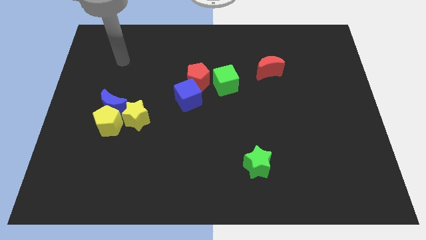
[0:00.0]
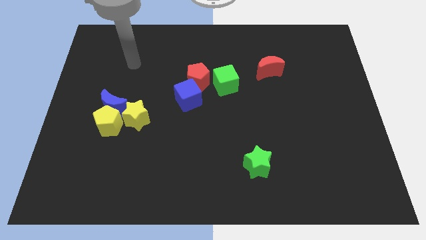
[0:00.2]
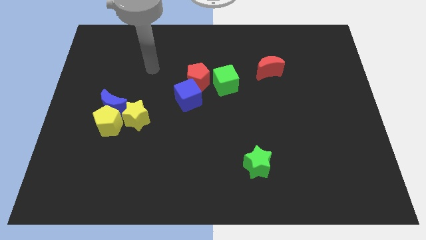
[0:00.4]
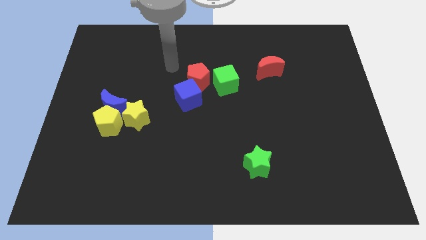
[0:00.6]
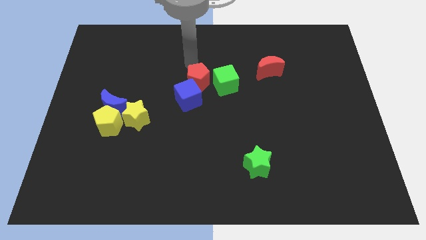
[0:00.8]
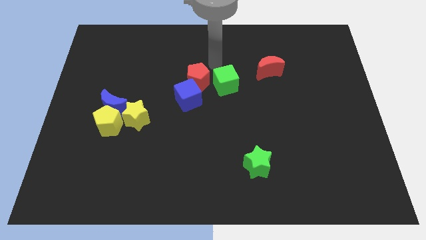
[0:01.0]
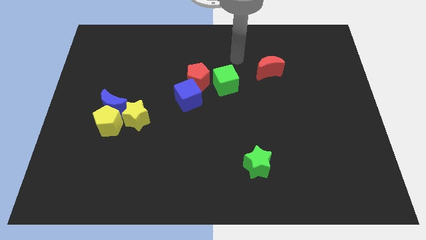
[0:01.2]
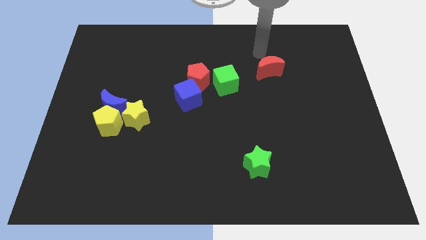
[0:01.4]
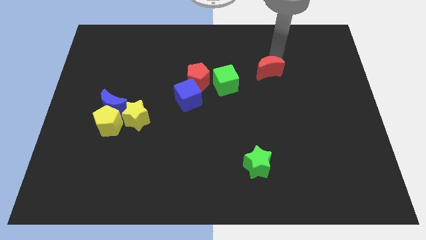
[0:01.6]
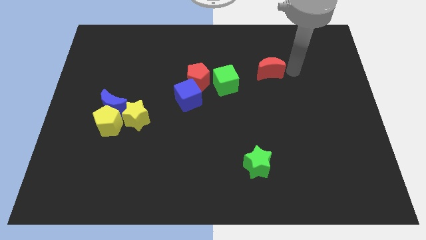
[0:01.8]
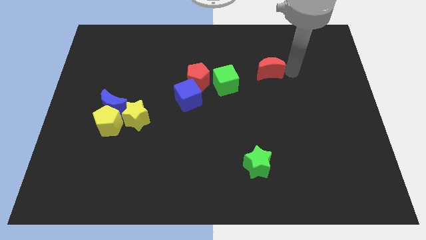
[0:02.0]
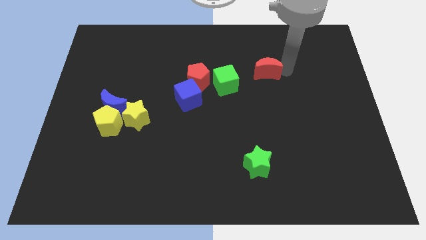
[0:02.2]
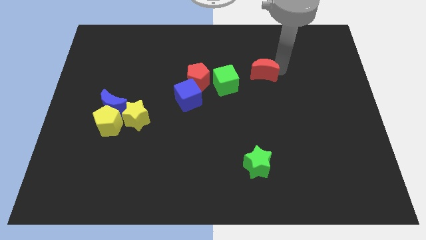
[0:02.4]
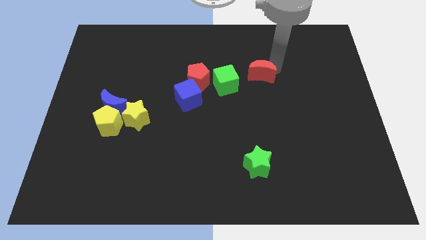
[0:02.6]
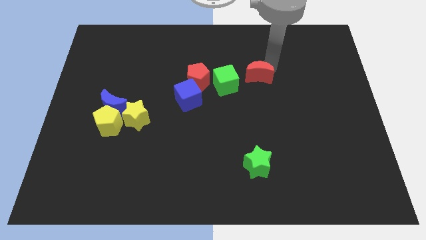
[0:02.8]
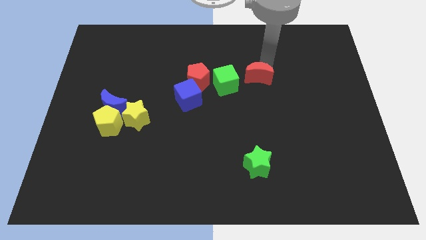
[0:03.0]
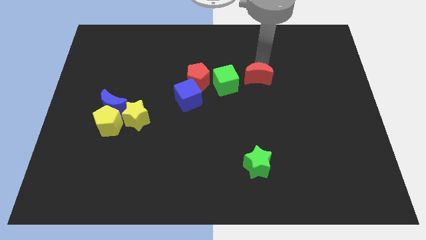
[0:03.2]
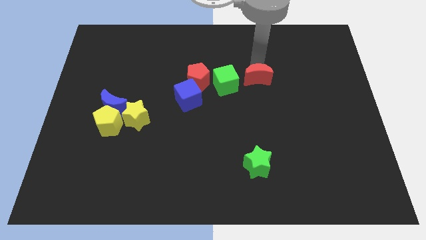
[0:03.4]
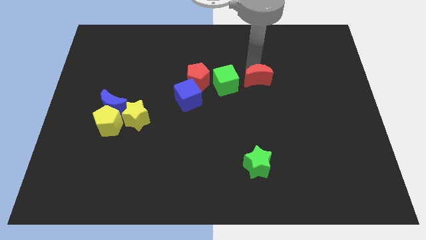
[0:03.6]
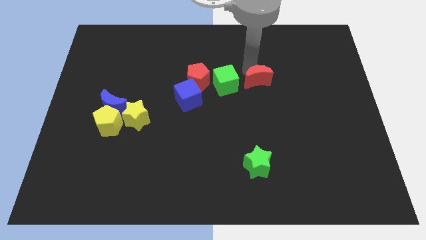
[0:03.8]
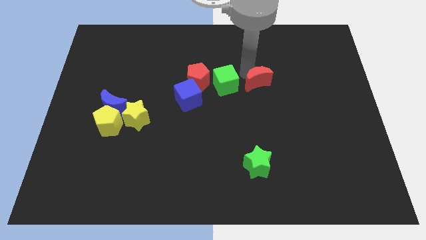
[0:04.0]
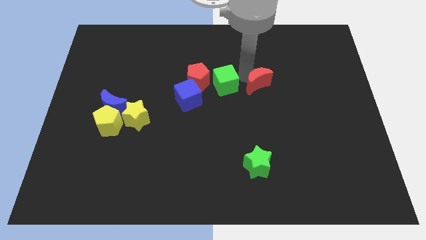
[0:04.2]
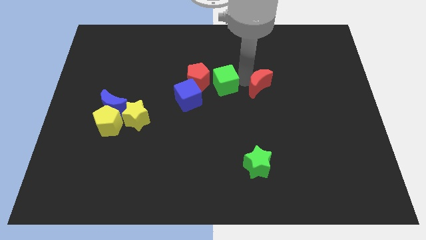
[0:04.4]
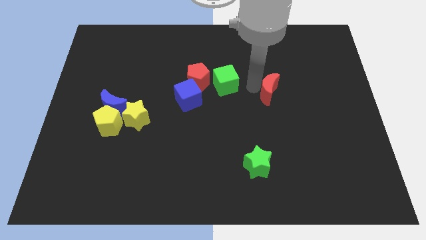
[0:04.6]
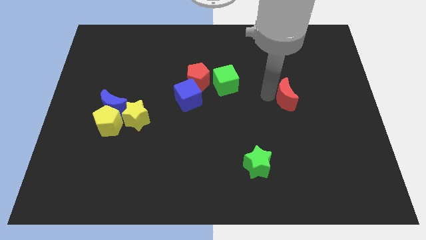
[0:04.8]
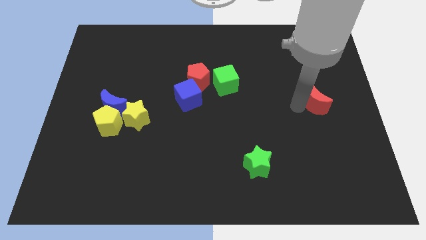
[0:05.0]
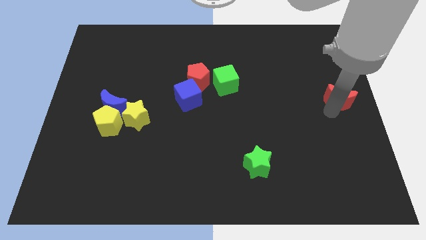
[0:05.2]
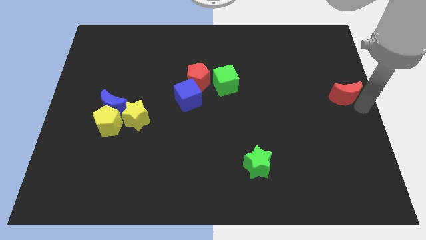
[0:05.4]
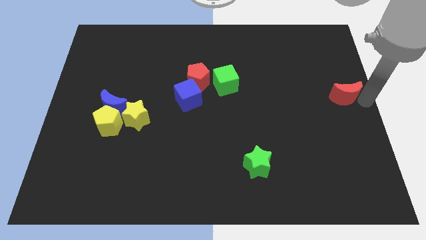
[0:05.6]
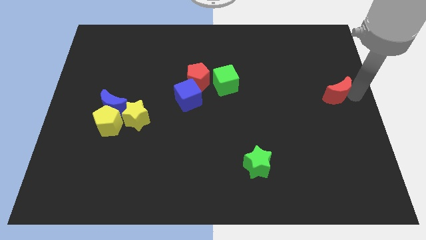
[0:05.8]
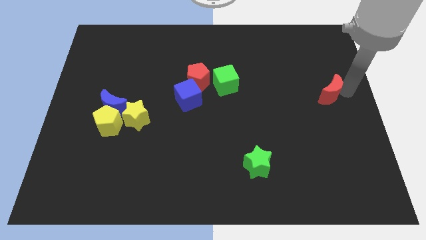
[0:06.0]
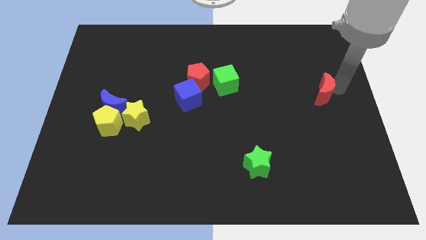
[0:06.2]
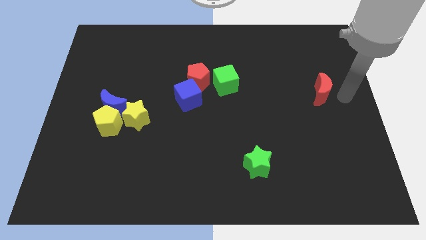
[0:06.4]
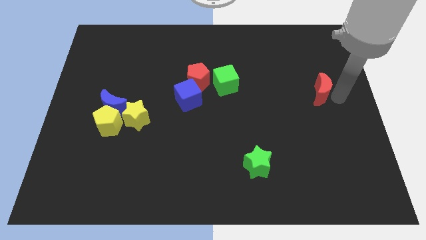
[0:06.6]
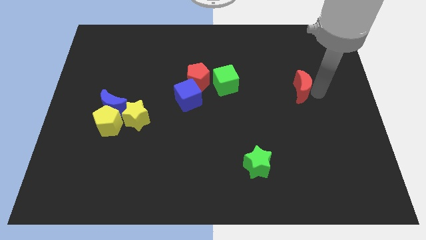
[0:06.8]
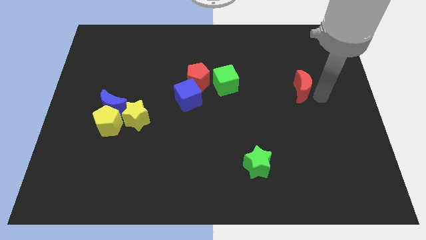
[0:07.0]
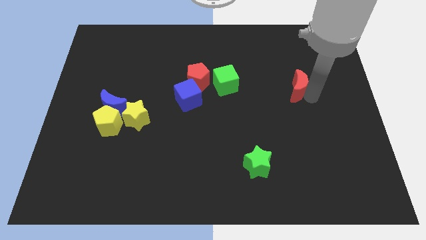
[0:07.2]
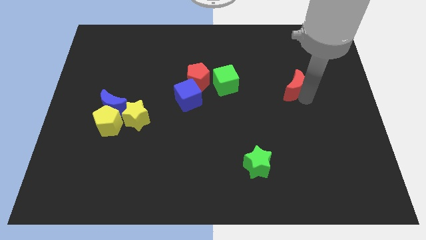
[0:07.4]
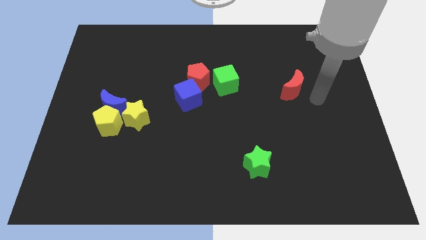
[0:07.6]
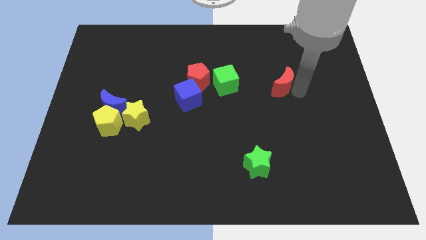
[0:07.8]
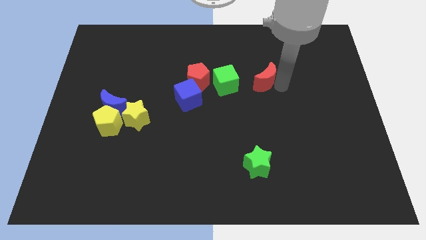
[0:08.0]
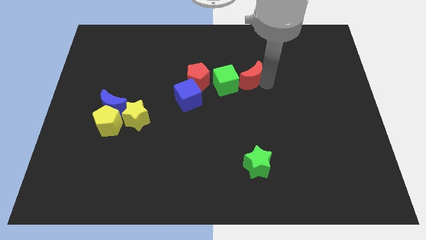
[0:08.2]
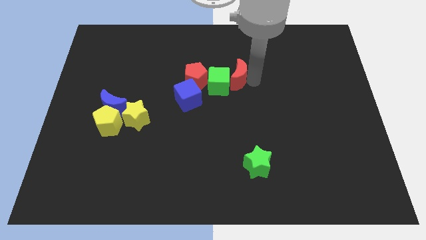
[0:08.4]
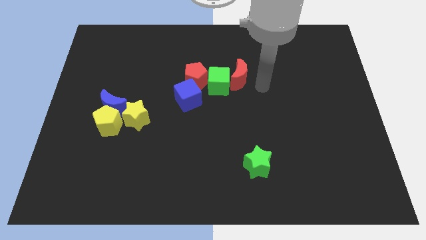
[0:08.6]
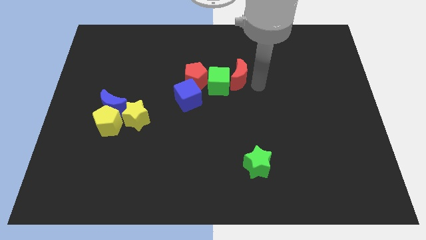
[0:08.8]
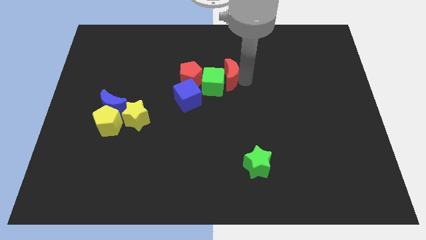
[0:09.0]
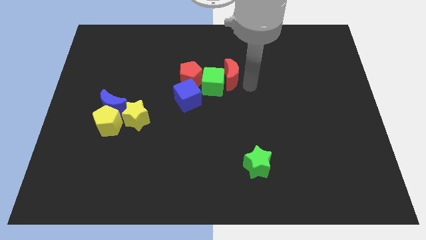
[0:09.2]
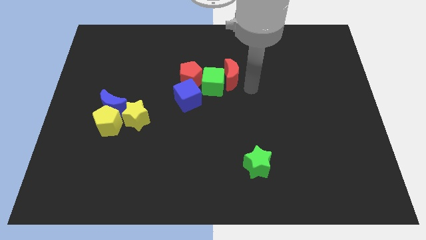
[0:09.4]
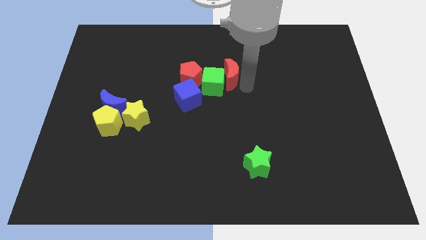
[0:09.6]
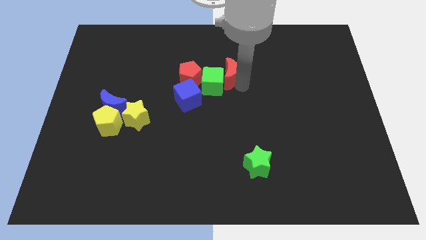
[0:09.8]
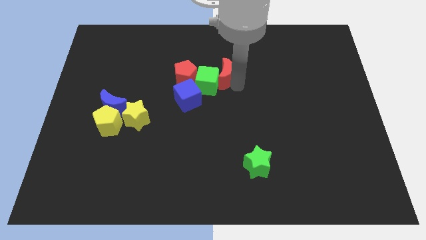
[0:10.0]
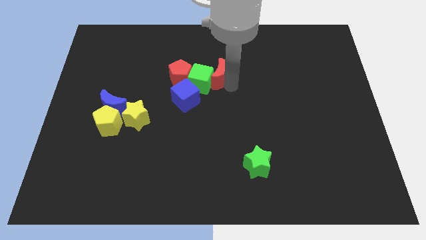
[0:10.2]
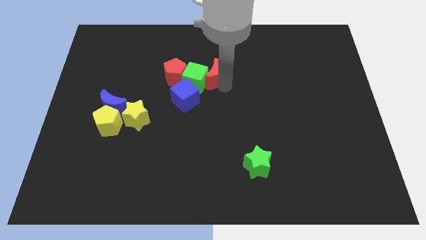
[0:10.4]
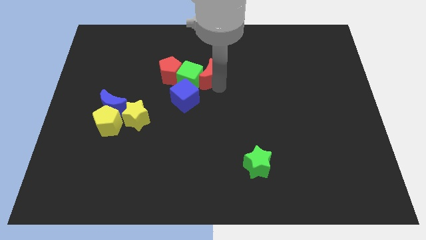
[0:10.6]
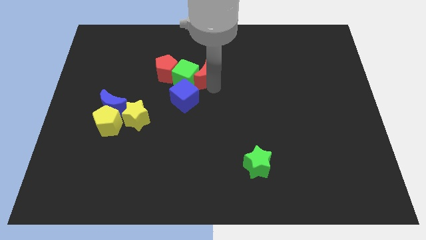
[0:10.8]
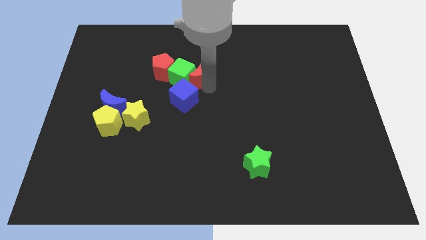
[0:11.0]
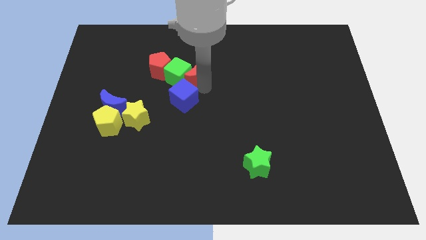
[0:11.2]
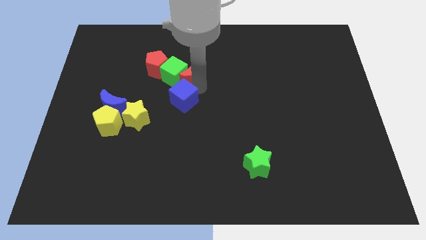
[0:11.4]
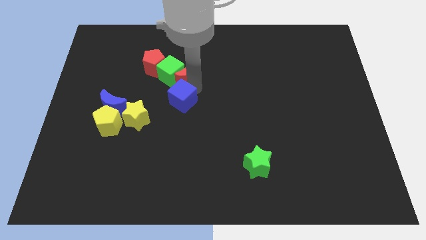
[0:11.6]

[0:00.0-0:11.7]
move the red moon left

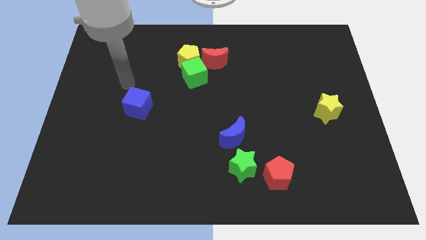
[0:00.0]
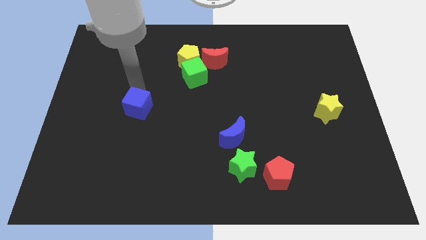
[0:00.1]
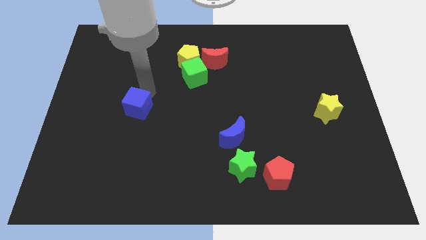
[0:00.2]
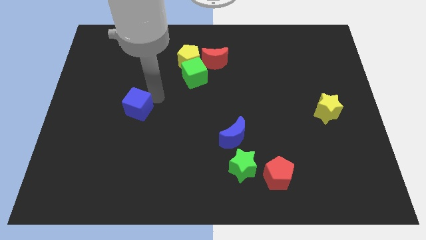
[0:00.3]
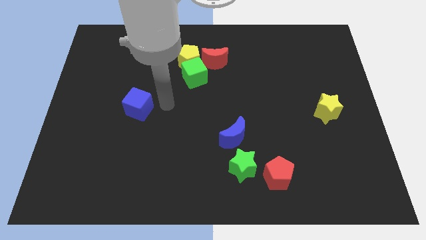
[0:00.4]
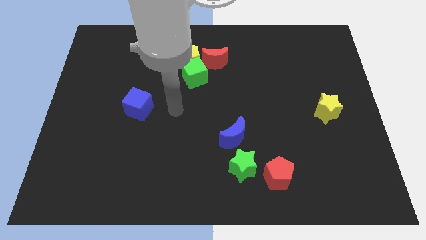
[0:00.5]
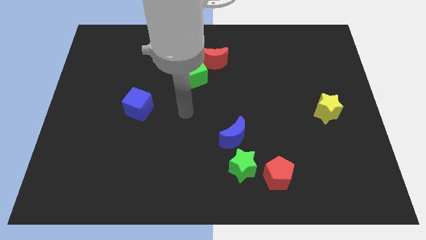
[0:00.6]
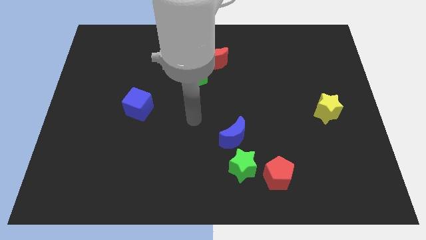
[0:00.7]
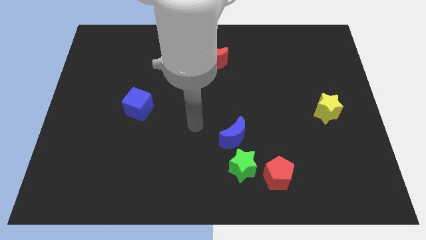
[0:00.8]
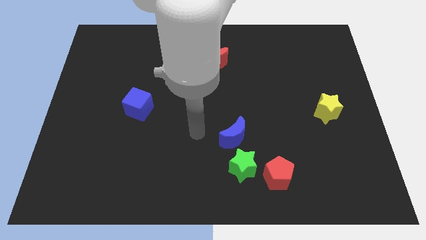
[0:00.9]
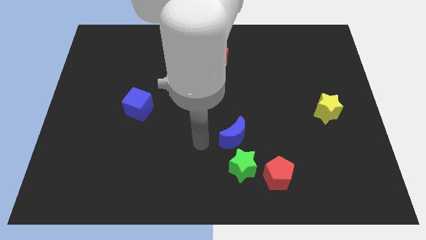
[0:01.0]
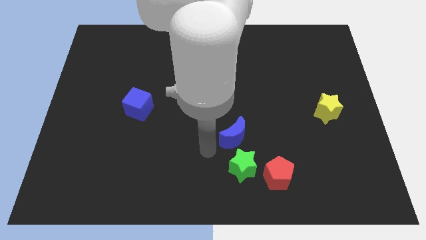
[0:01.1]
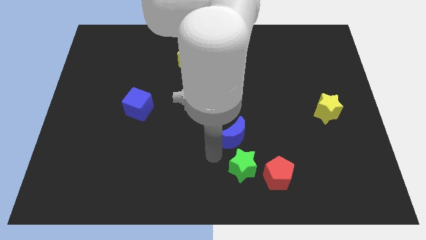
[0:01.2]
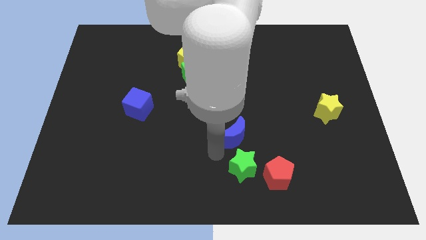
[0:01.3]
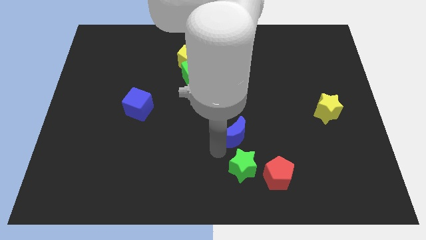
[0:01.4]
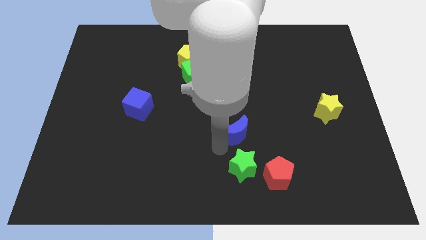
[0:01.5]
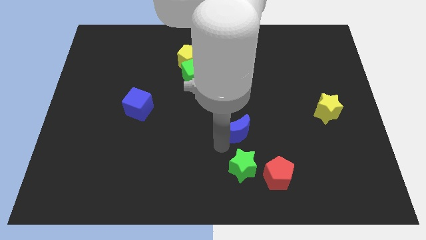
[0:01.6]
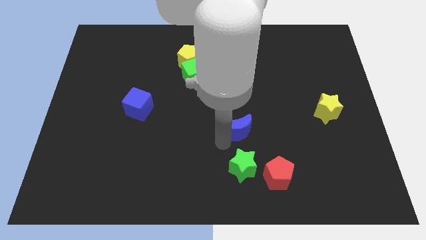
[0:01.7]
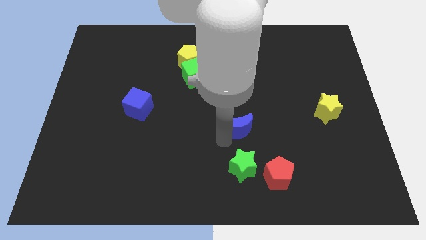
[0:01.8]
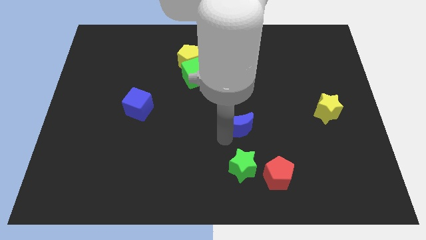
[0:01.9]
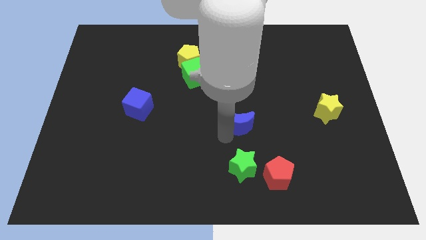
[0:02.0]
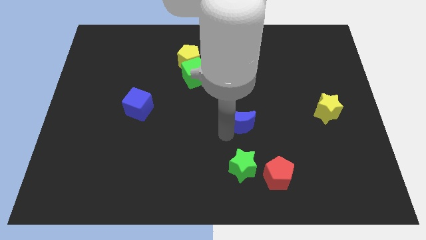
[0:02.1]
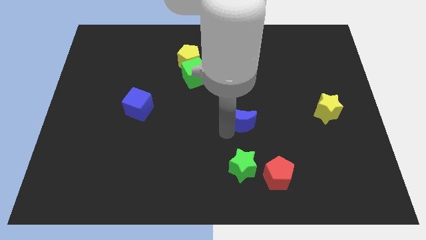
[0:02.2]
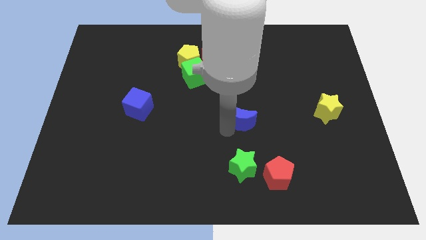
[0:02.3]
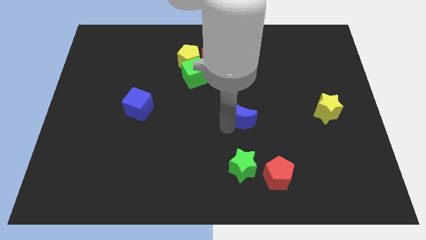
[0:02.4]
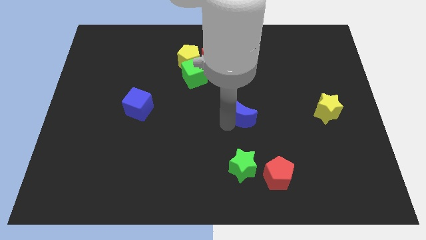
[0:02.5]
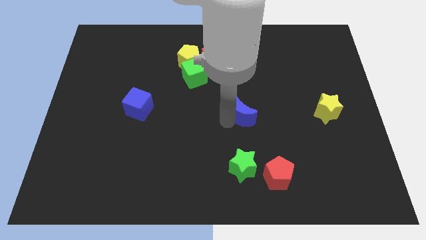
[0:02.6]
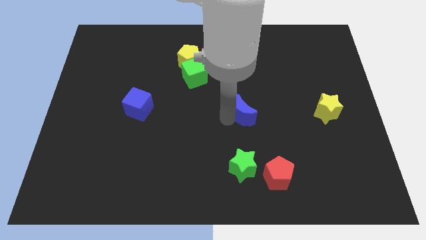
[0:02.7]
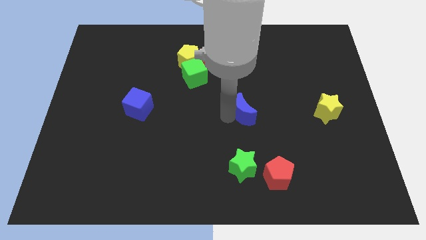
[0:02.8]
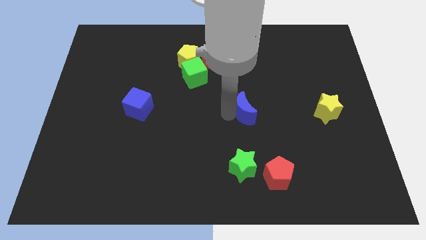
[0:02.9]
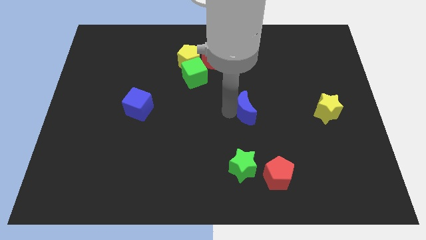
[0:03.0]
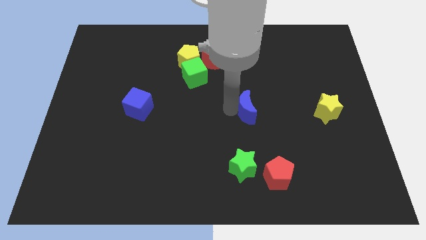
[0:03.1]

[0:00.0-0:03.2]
slightly push the blue moon up and right
